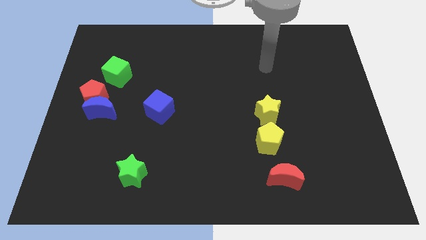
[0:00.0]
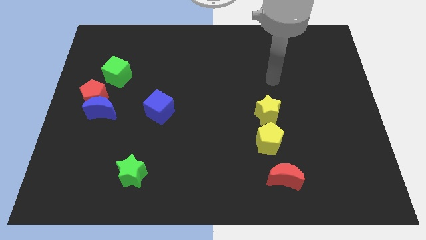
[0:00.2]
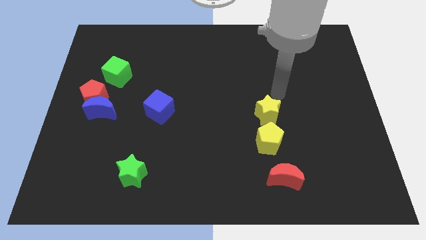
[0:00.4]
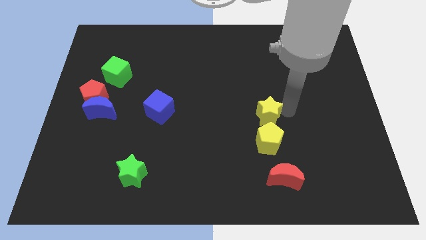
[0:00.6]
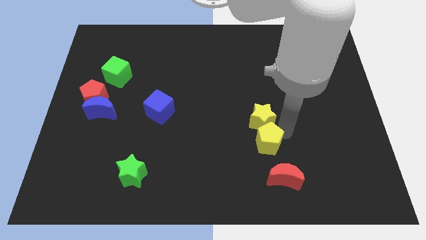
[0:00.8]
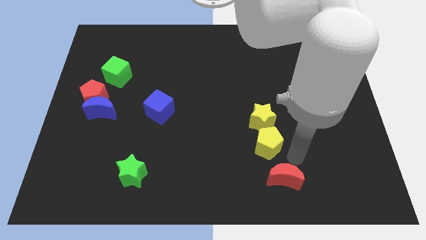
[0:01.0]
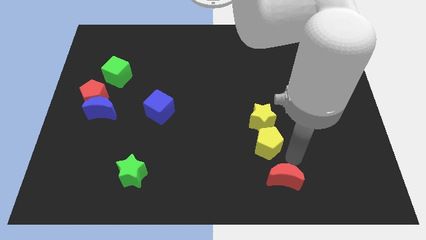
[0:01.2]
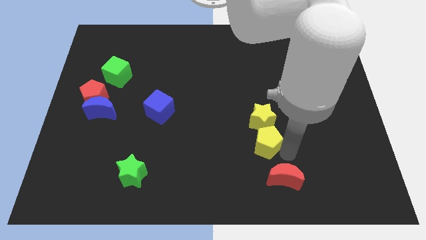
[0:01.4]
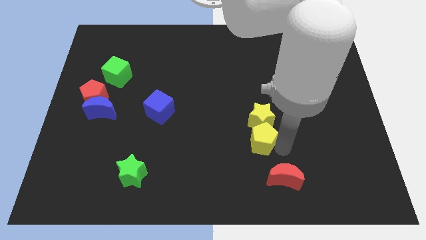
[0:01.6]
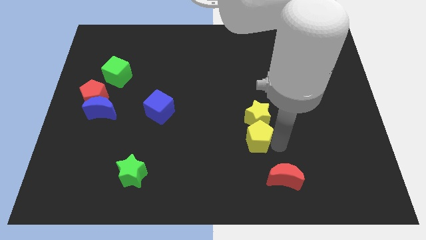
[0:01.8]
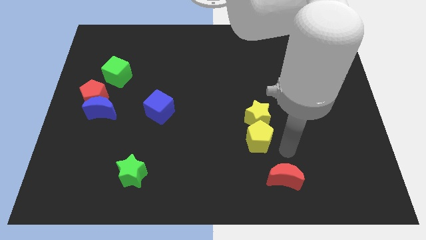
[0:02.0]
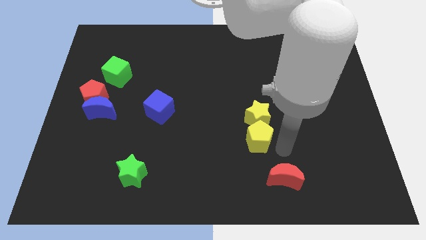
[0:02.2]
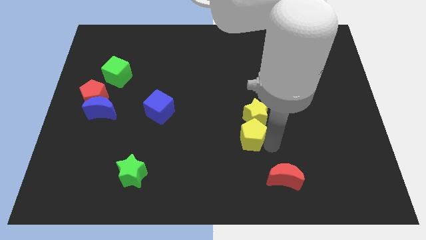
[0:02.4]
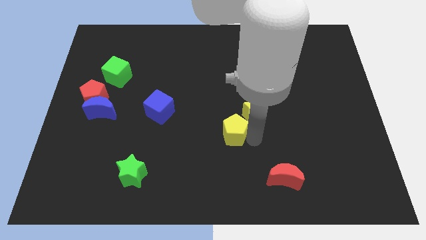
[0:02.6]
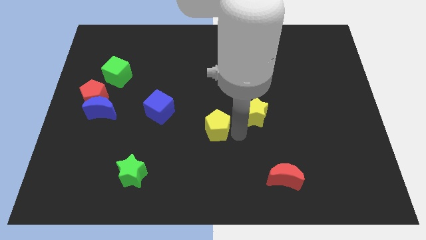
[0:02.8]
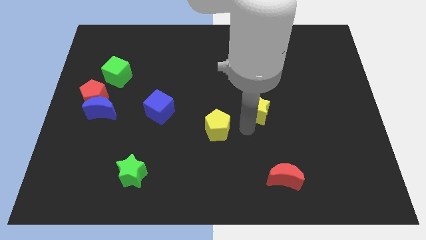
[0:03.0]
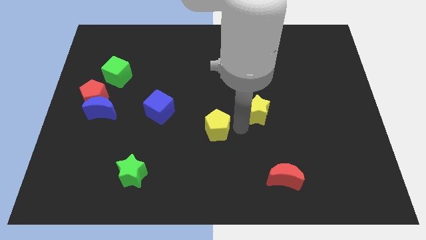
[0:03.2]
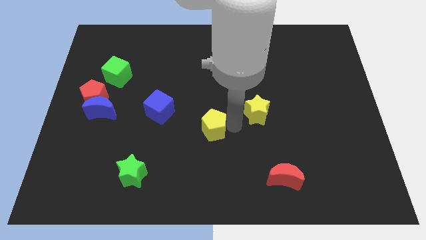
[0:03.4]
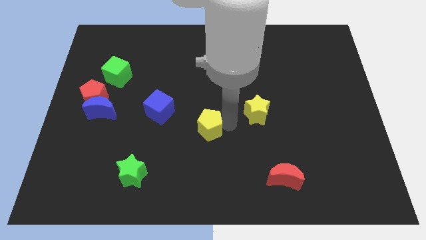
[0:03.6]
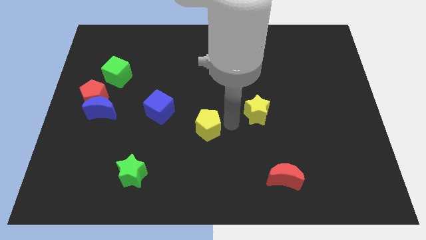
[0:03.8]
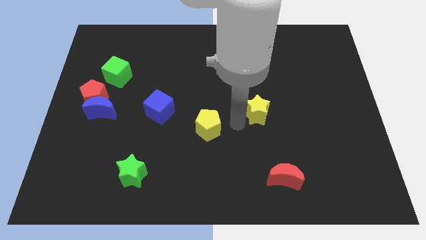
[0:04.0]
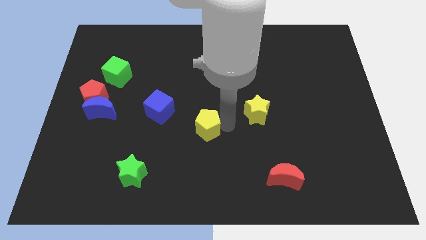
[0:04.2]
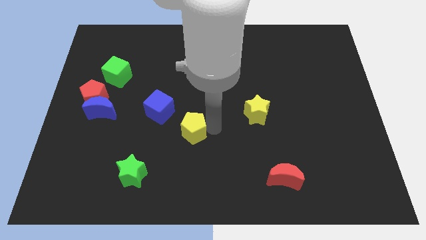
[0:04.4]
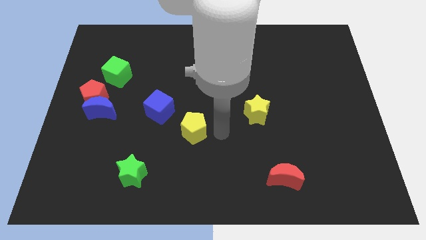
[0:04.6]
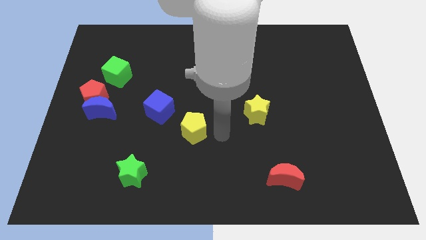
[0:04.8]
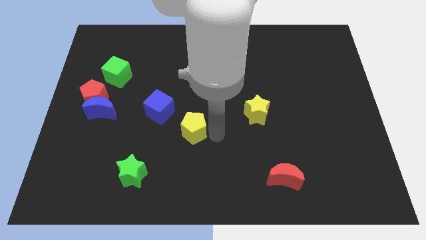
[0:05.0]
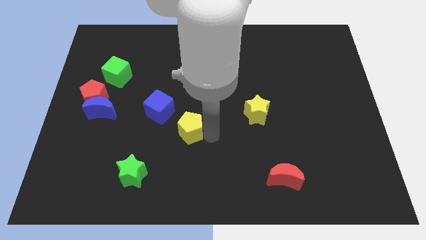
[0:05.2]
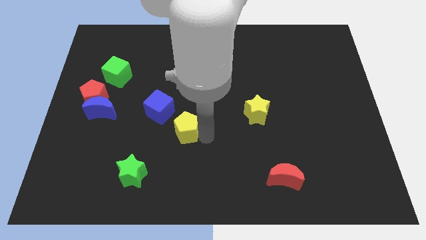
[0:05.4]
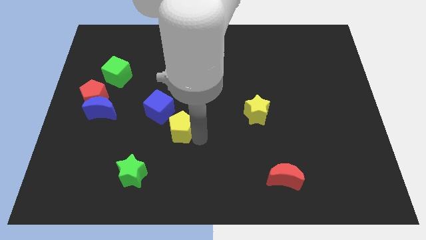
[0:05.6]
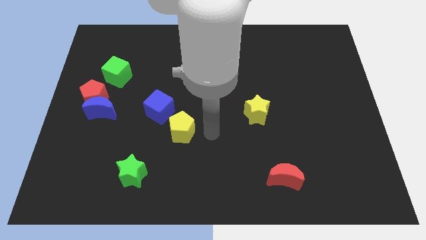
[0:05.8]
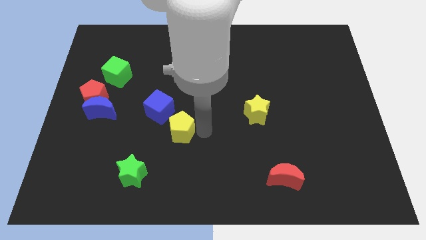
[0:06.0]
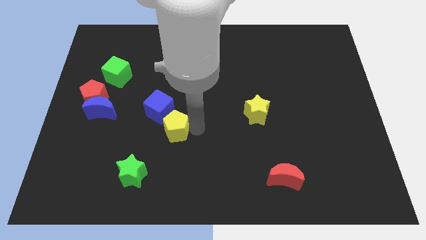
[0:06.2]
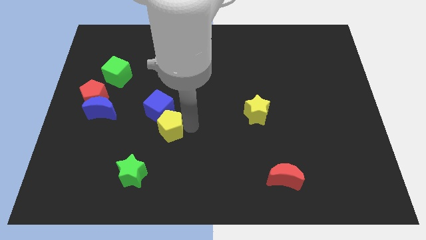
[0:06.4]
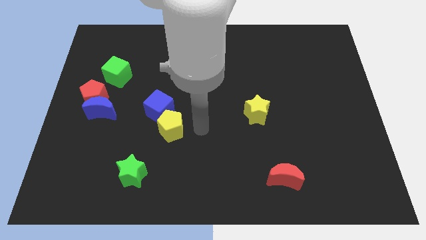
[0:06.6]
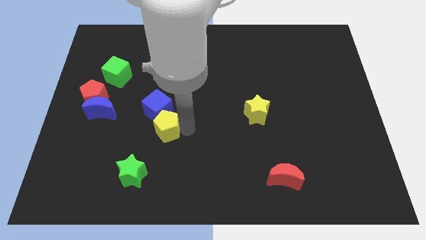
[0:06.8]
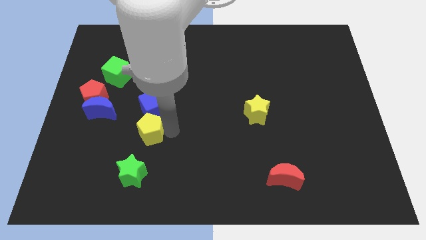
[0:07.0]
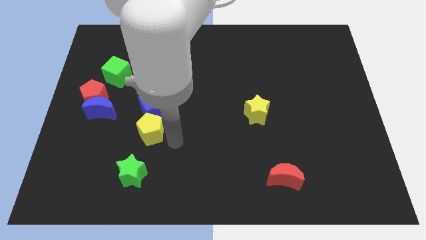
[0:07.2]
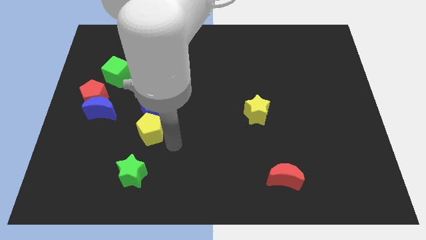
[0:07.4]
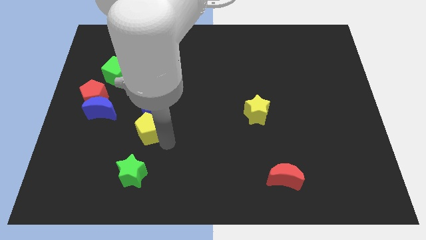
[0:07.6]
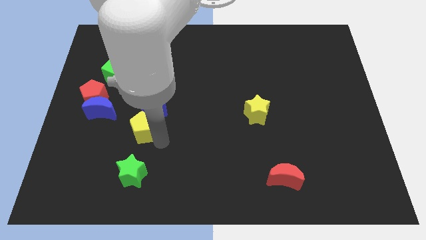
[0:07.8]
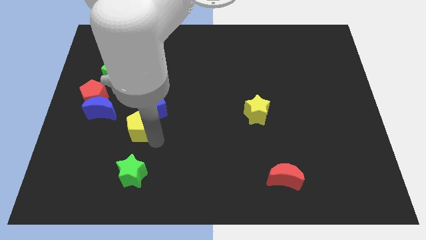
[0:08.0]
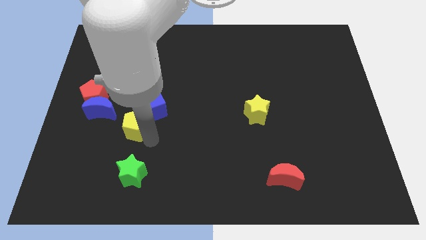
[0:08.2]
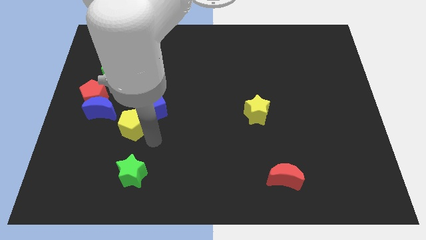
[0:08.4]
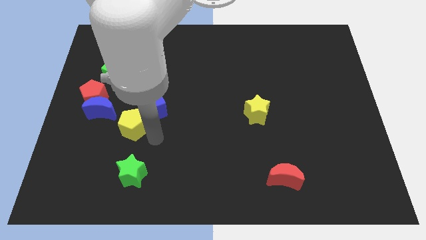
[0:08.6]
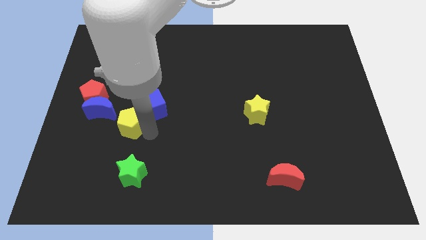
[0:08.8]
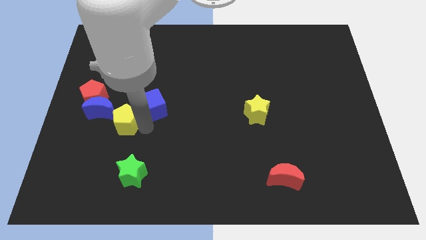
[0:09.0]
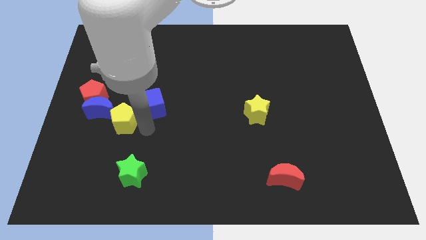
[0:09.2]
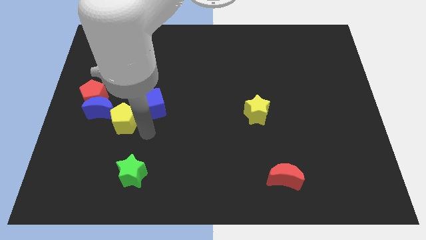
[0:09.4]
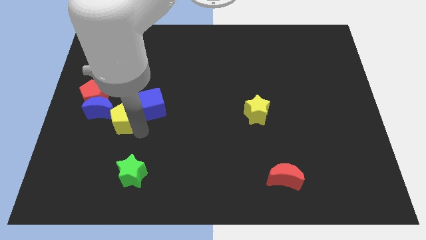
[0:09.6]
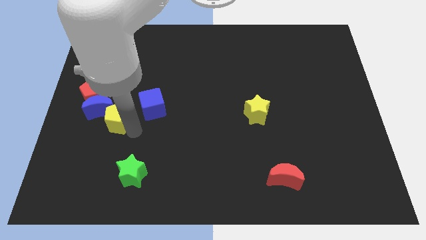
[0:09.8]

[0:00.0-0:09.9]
move the yellow pentagon close to the blue moon

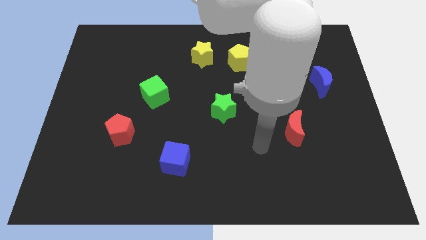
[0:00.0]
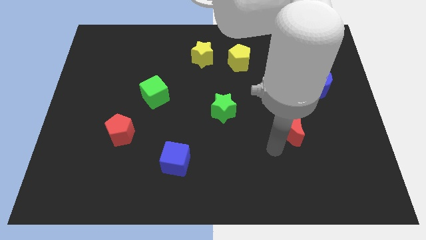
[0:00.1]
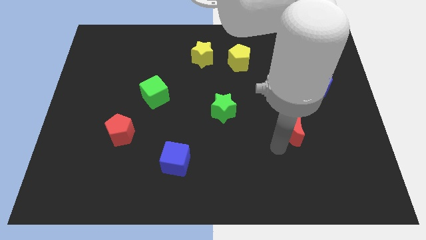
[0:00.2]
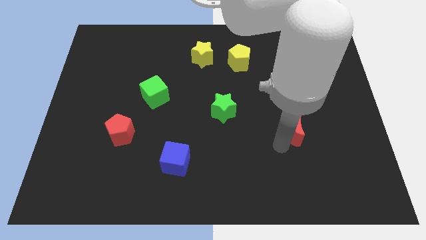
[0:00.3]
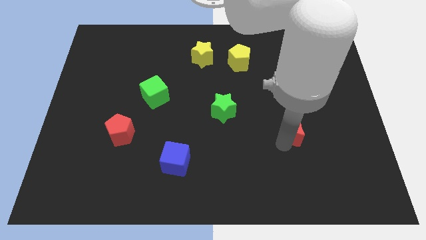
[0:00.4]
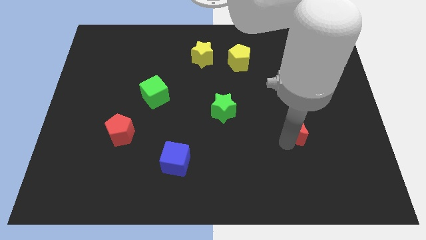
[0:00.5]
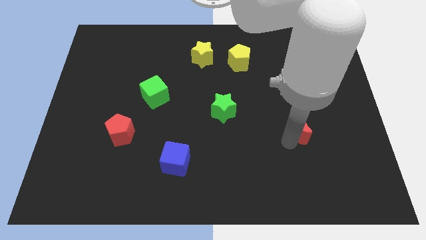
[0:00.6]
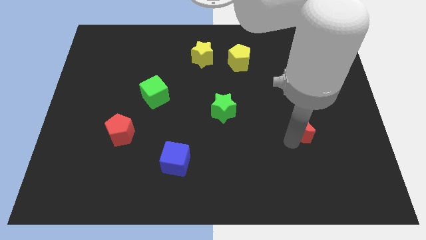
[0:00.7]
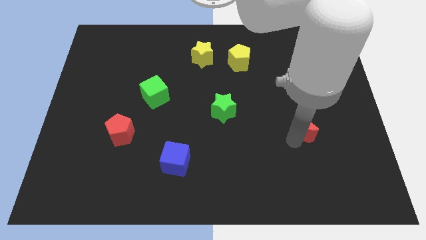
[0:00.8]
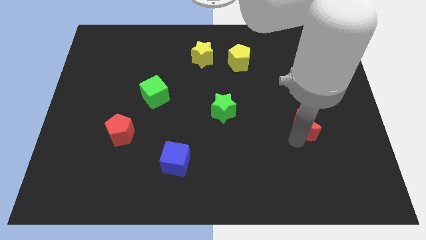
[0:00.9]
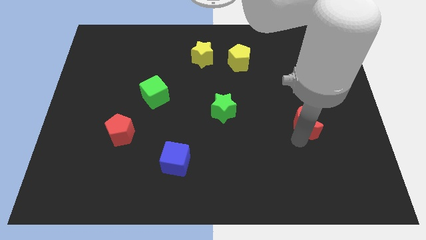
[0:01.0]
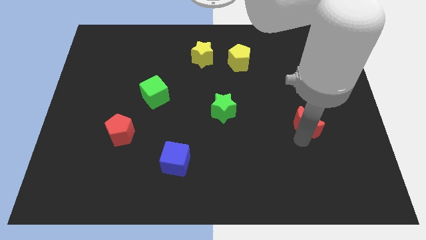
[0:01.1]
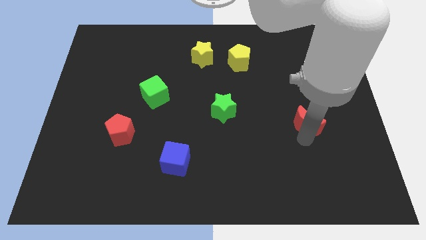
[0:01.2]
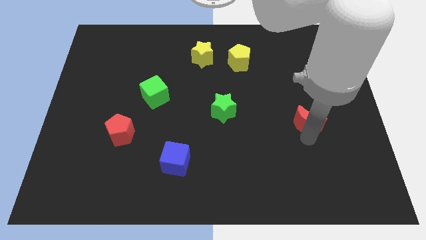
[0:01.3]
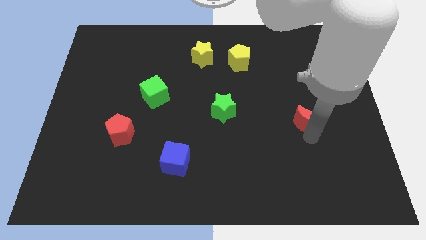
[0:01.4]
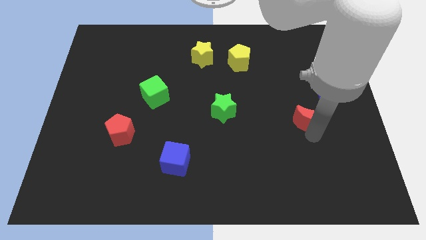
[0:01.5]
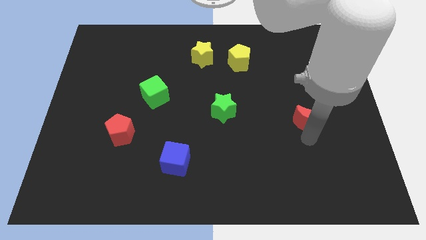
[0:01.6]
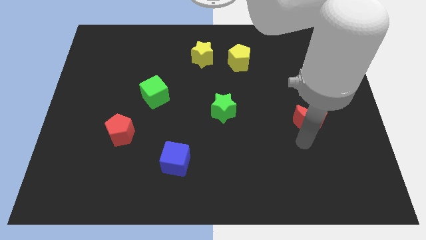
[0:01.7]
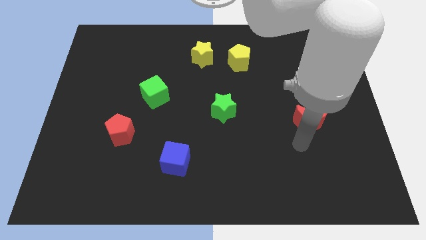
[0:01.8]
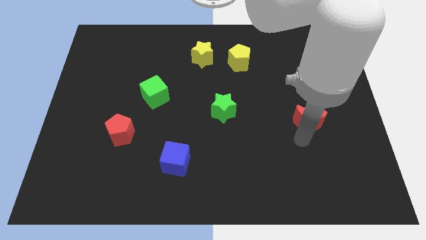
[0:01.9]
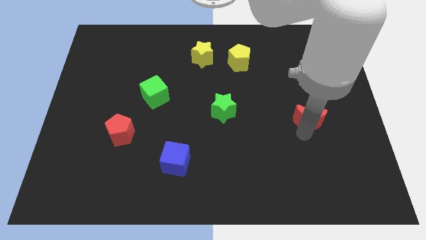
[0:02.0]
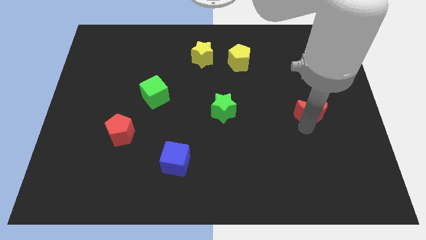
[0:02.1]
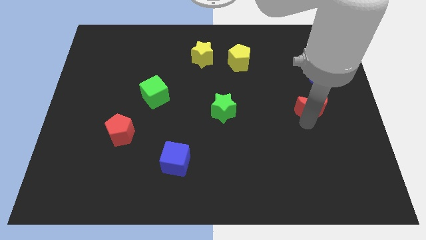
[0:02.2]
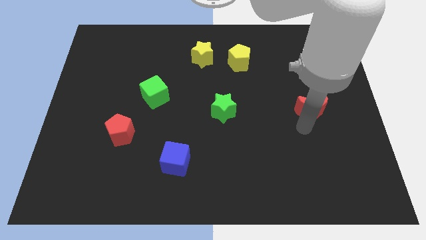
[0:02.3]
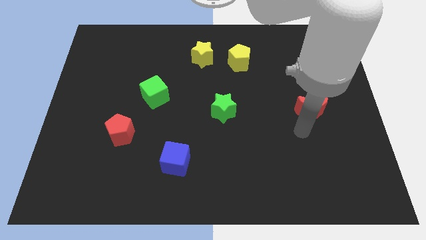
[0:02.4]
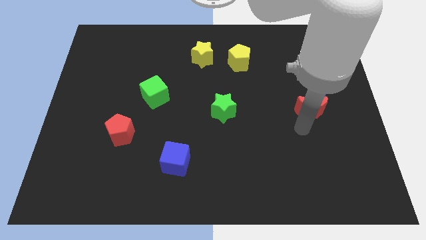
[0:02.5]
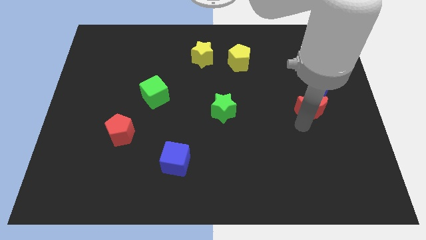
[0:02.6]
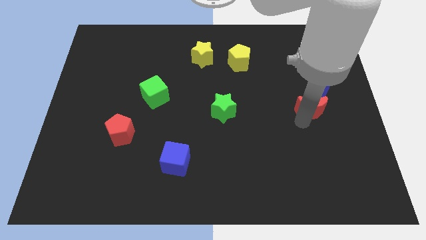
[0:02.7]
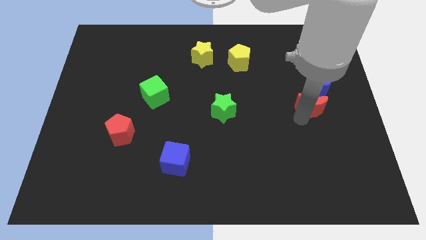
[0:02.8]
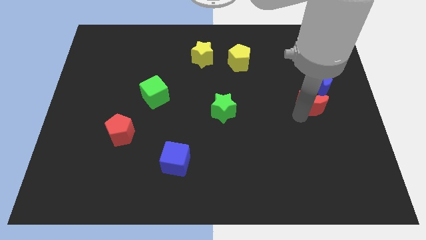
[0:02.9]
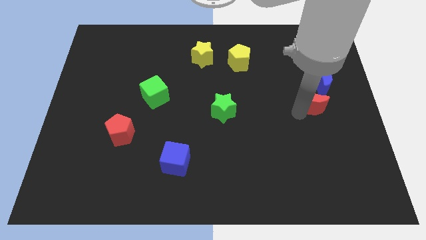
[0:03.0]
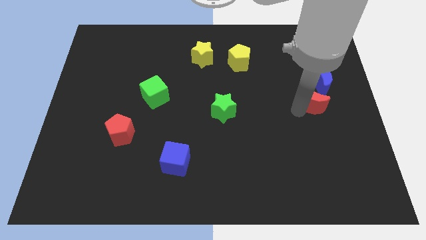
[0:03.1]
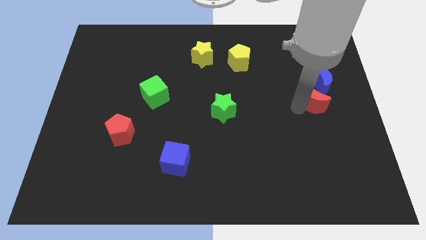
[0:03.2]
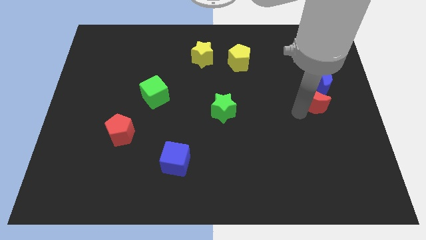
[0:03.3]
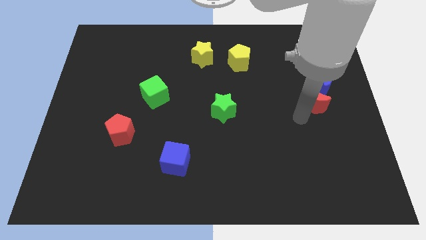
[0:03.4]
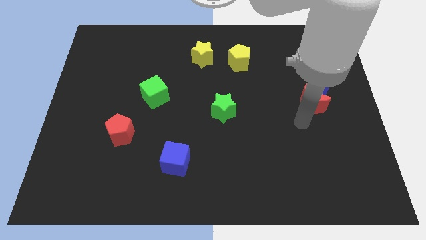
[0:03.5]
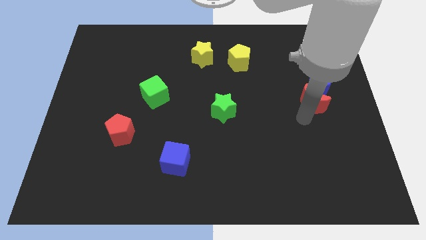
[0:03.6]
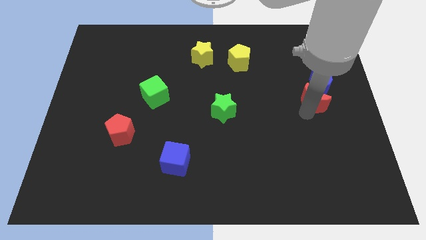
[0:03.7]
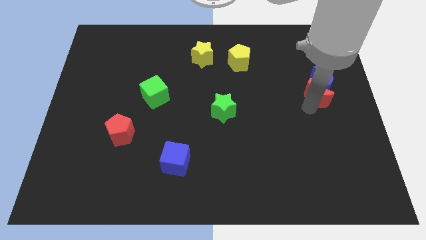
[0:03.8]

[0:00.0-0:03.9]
slide the red moon next to the blue moon
